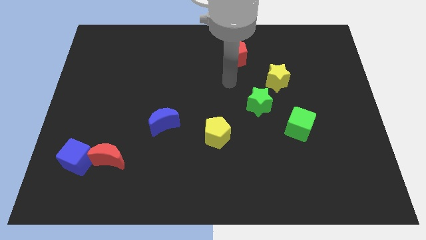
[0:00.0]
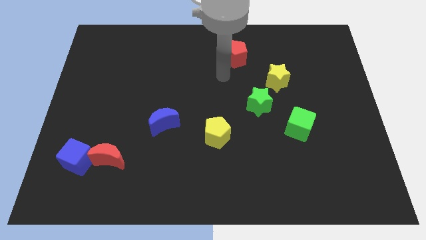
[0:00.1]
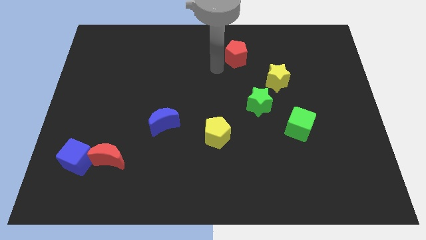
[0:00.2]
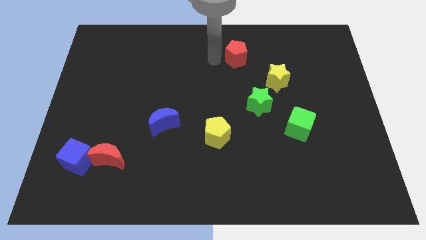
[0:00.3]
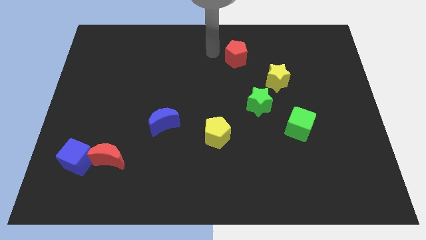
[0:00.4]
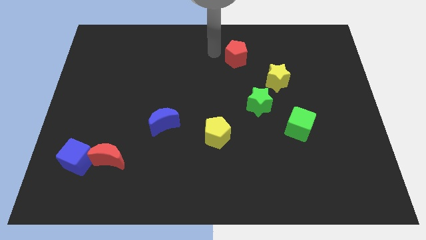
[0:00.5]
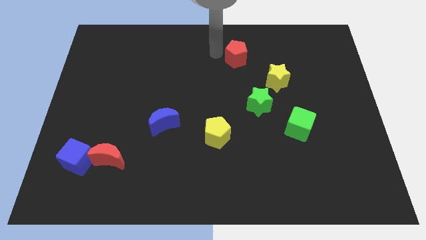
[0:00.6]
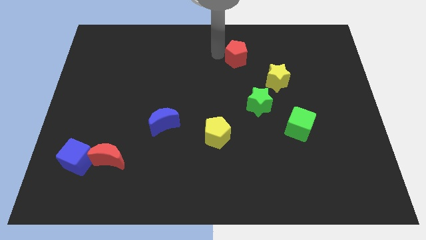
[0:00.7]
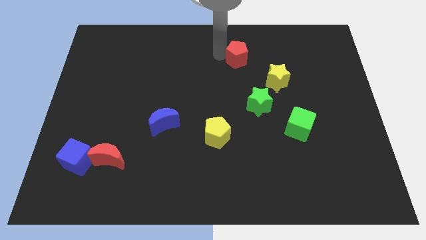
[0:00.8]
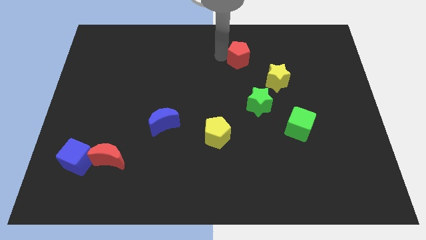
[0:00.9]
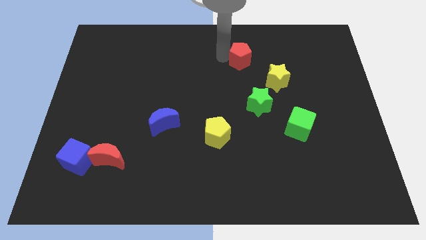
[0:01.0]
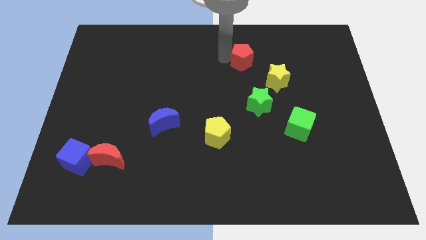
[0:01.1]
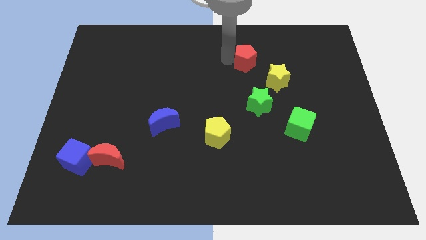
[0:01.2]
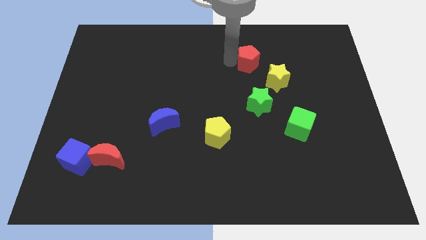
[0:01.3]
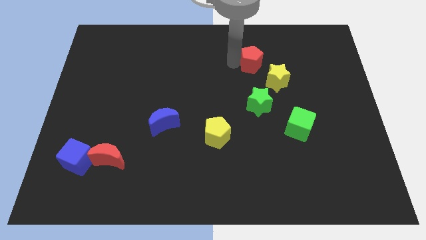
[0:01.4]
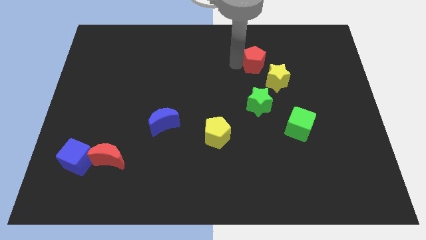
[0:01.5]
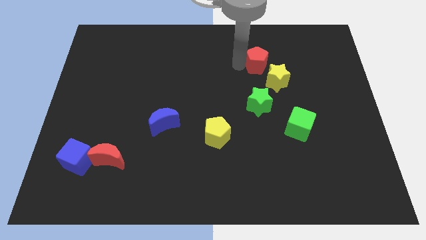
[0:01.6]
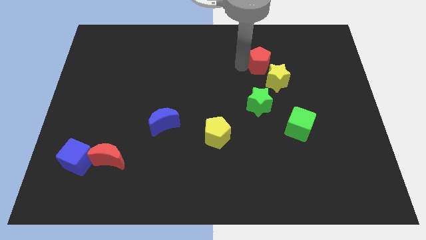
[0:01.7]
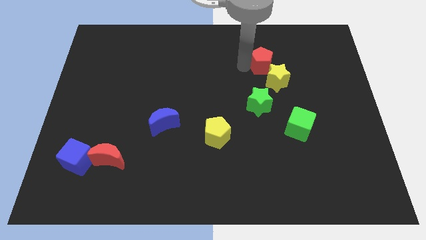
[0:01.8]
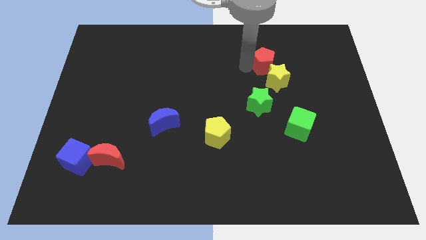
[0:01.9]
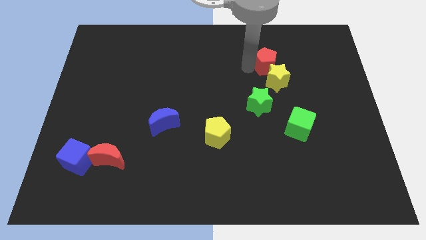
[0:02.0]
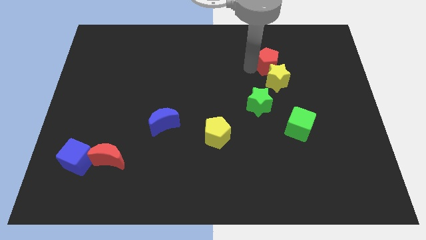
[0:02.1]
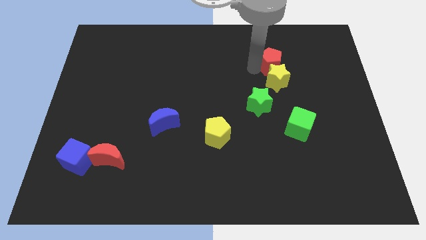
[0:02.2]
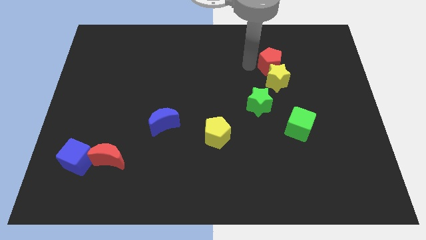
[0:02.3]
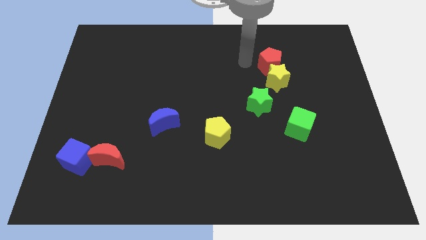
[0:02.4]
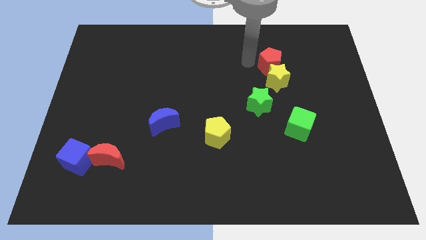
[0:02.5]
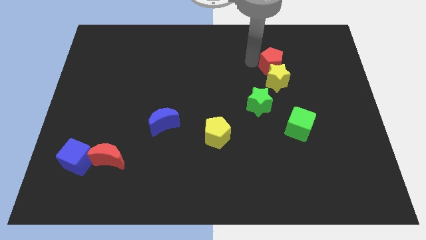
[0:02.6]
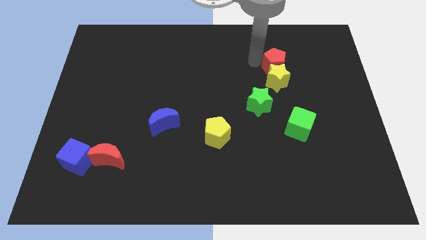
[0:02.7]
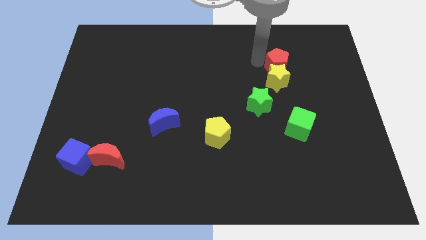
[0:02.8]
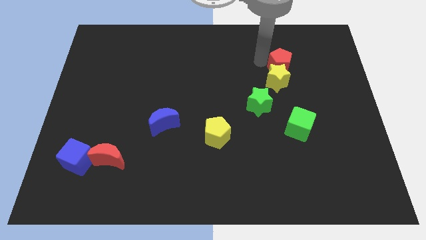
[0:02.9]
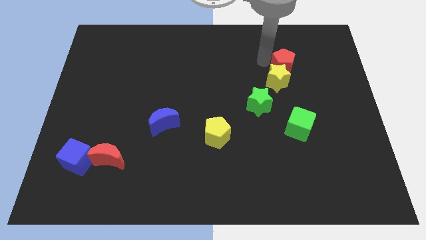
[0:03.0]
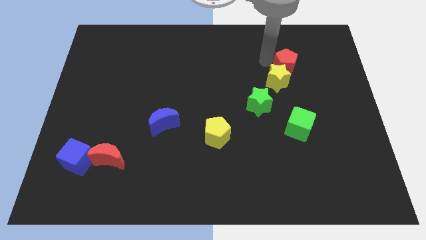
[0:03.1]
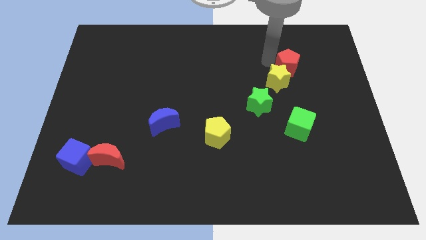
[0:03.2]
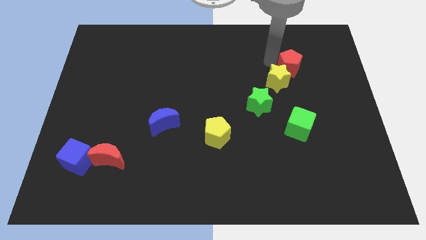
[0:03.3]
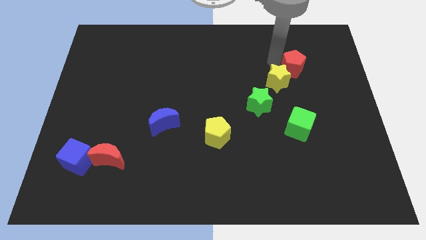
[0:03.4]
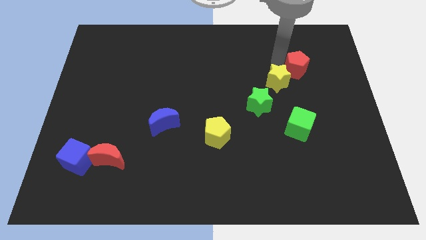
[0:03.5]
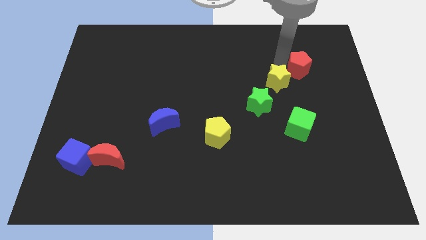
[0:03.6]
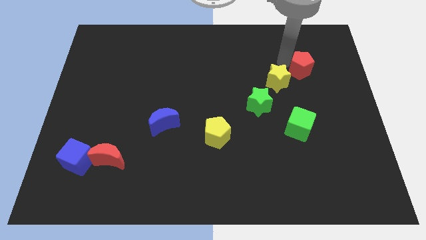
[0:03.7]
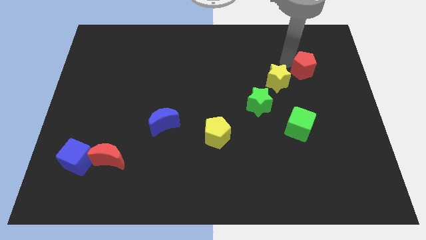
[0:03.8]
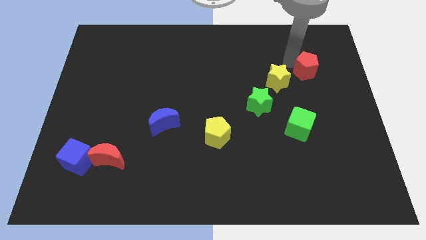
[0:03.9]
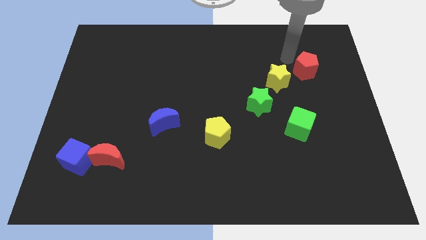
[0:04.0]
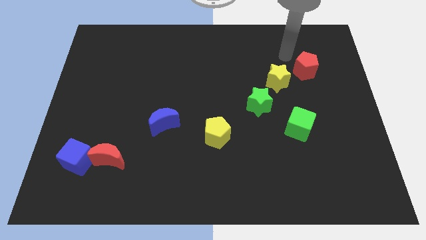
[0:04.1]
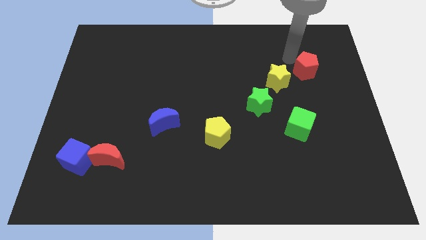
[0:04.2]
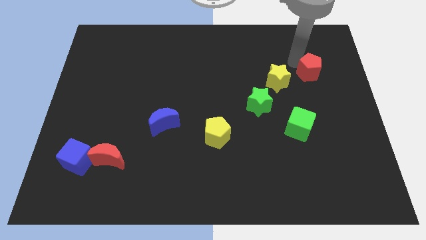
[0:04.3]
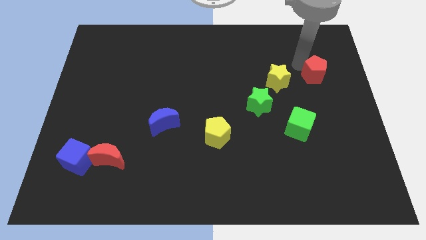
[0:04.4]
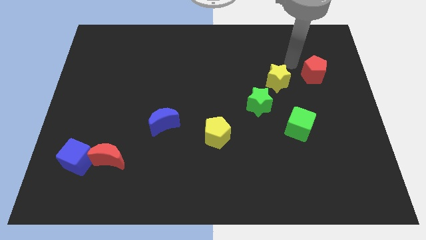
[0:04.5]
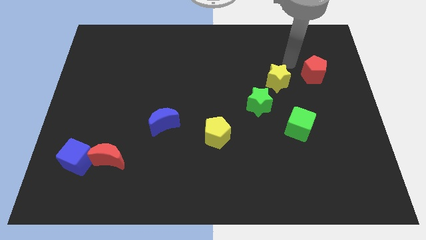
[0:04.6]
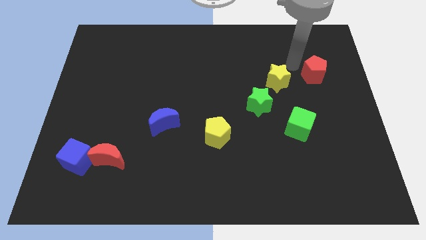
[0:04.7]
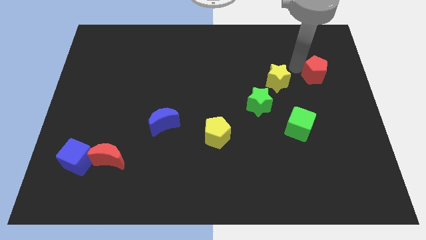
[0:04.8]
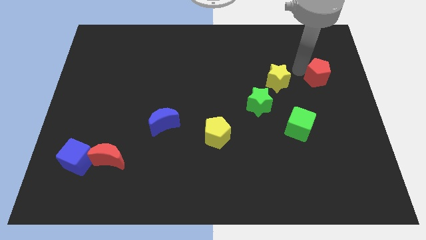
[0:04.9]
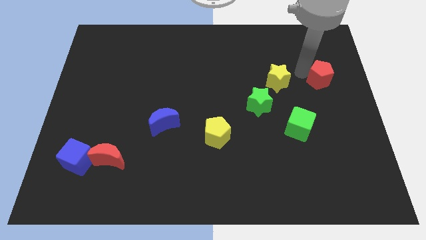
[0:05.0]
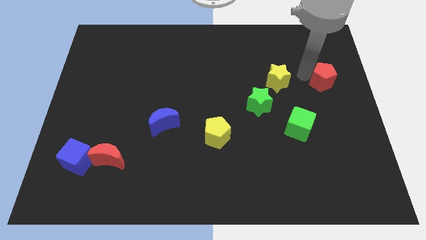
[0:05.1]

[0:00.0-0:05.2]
put the red pentagon to the right side
